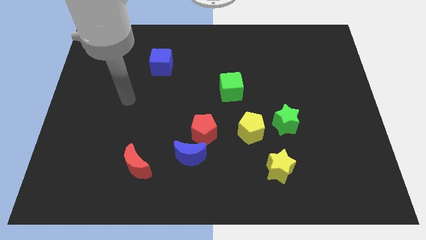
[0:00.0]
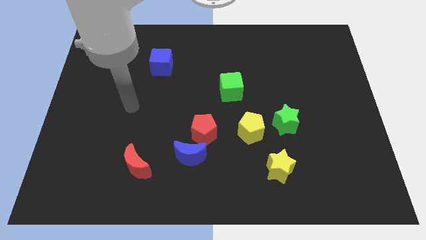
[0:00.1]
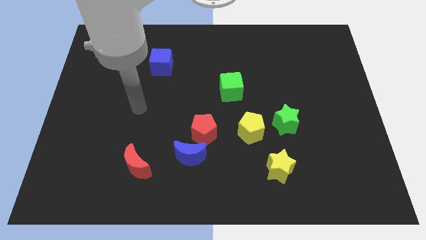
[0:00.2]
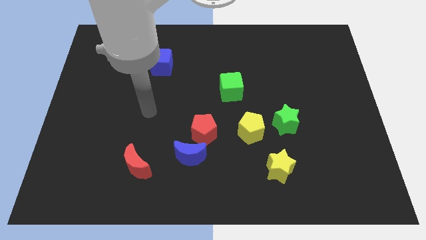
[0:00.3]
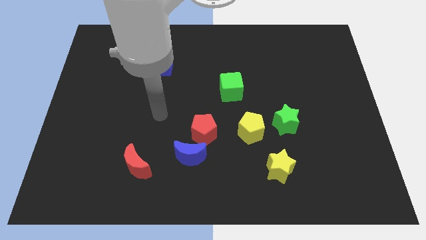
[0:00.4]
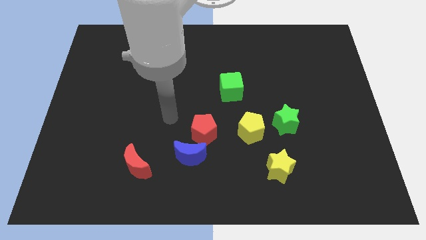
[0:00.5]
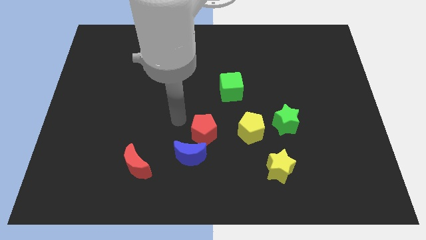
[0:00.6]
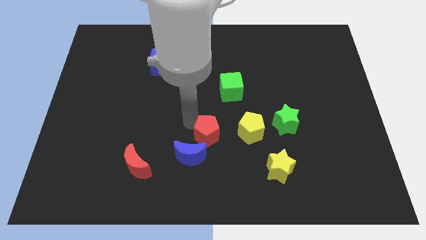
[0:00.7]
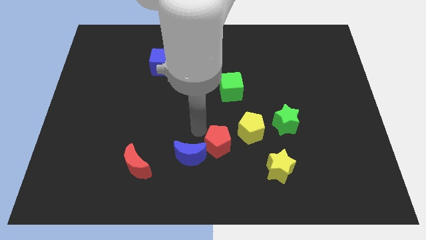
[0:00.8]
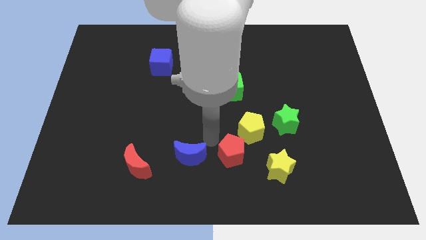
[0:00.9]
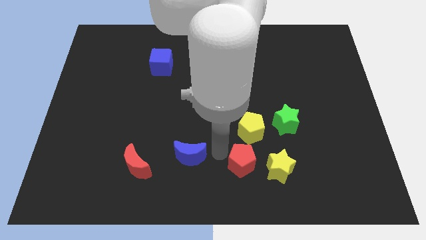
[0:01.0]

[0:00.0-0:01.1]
pull the blue moon apart from the red pentagon

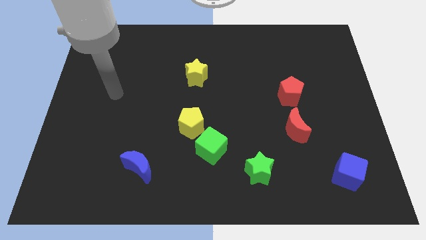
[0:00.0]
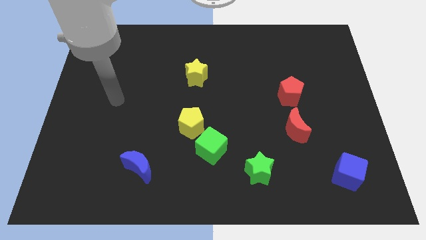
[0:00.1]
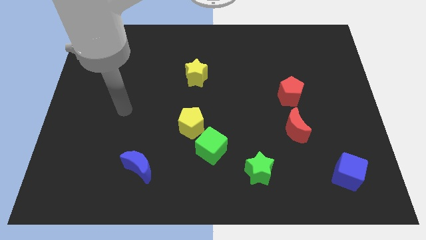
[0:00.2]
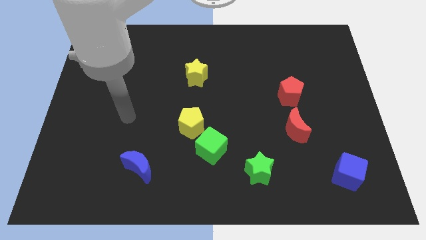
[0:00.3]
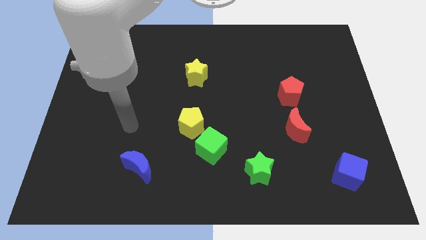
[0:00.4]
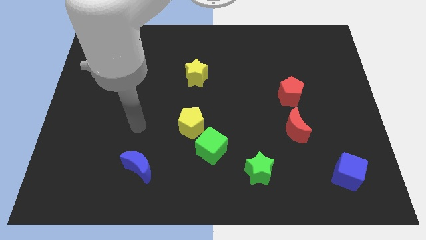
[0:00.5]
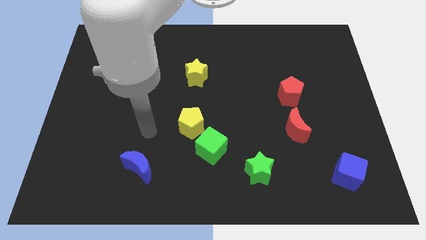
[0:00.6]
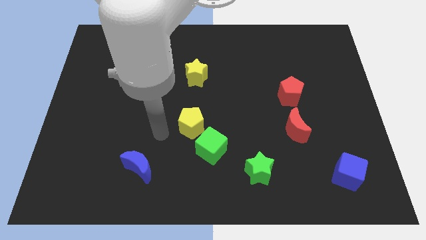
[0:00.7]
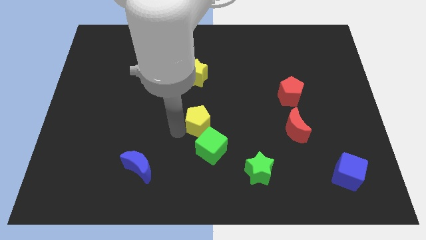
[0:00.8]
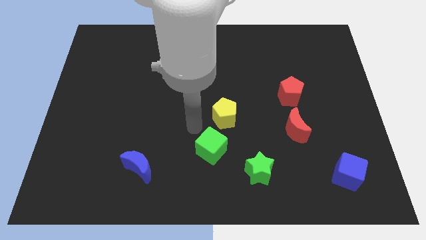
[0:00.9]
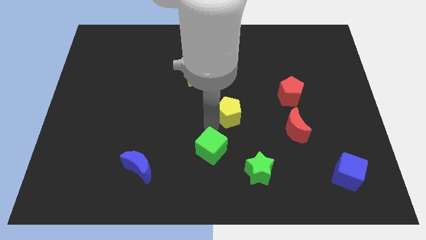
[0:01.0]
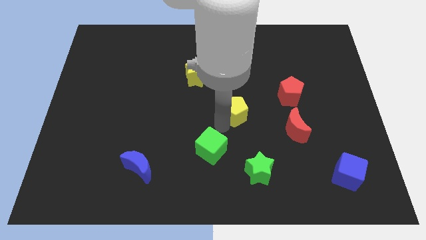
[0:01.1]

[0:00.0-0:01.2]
move the green cube away from the yellow pentagon

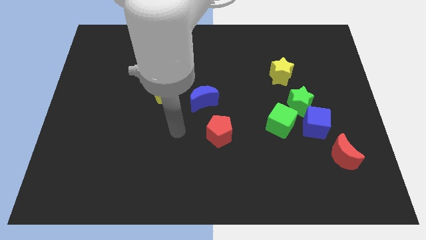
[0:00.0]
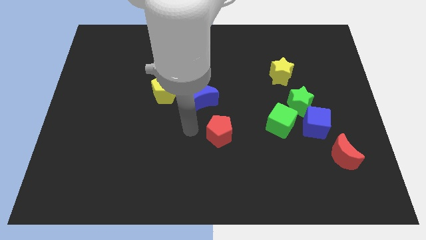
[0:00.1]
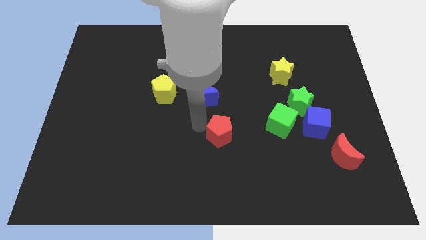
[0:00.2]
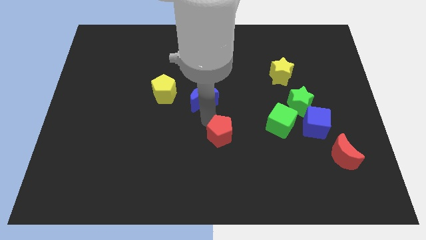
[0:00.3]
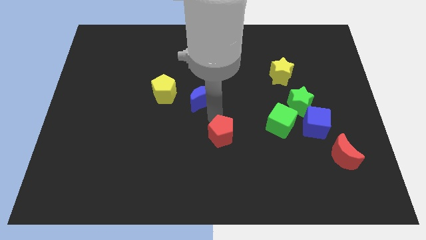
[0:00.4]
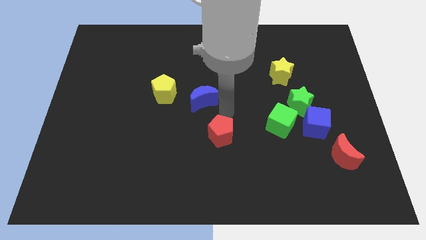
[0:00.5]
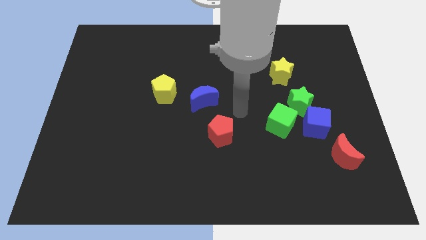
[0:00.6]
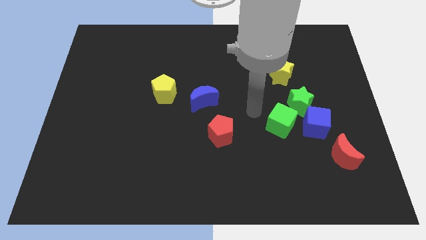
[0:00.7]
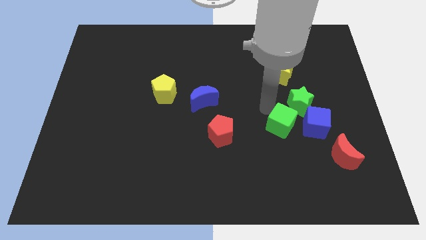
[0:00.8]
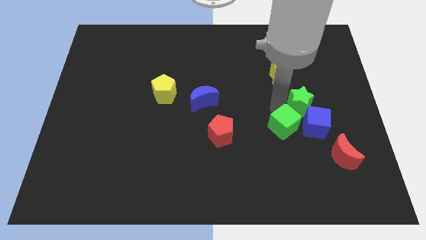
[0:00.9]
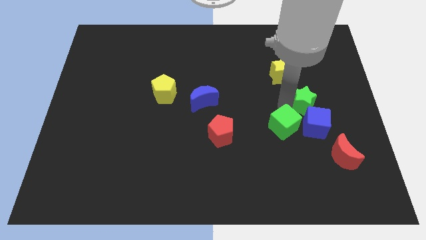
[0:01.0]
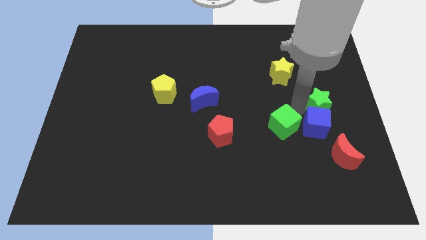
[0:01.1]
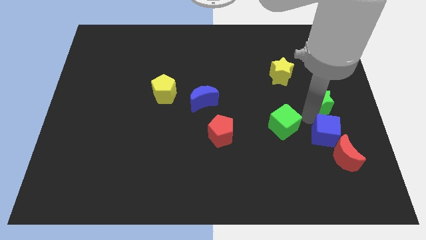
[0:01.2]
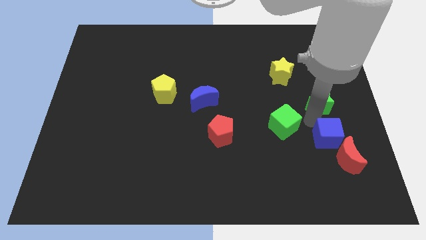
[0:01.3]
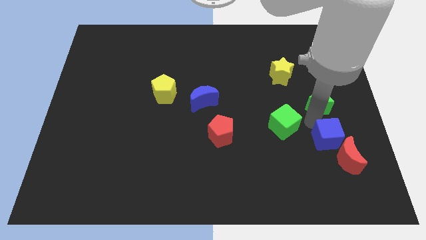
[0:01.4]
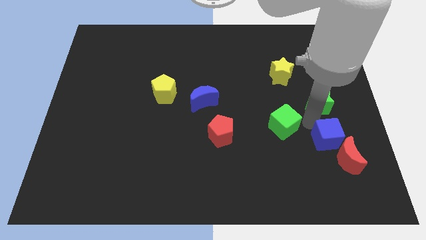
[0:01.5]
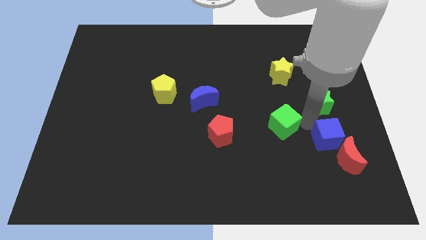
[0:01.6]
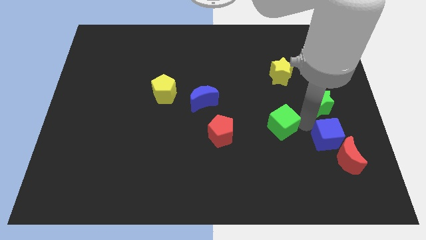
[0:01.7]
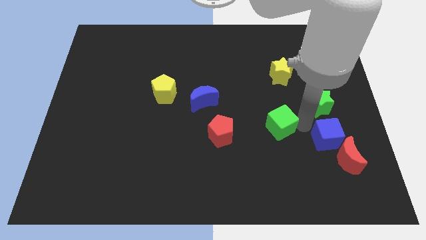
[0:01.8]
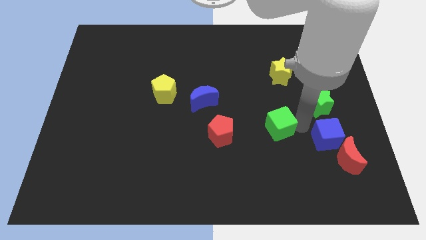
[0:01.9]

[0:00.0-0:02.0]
move the green cube away from the green star and blue cube

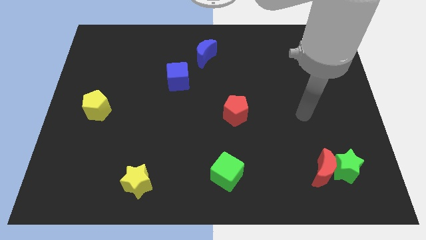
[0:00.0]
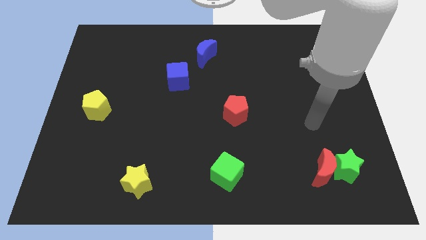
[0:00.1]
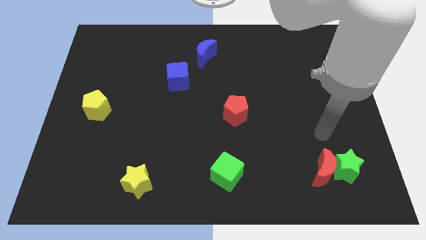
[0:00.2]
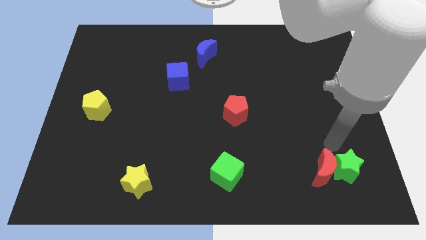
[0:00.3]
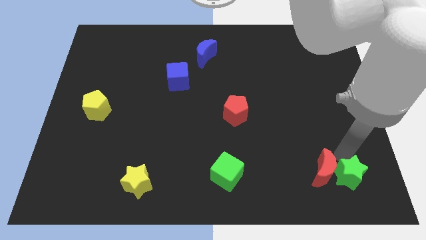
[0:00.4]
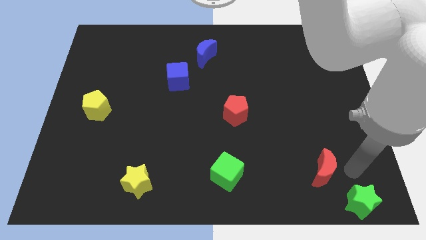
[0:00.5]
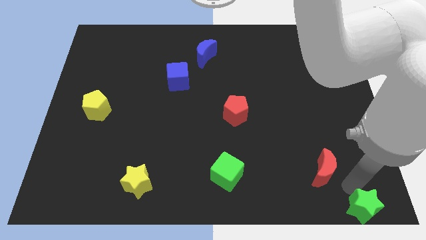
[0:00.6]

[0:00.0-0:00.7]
move the red moon away from the green star

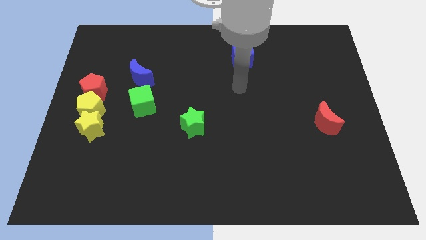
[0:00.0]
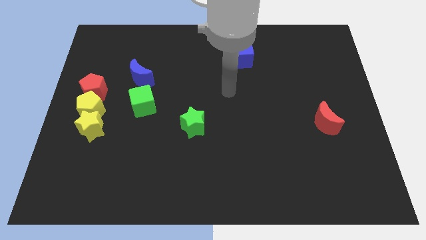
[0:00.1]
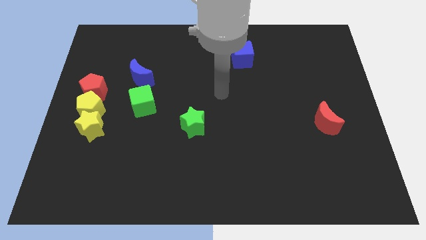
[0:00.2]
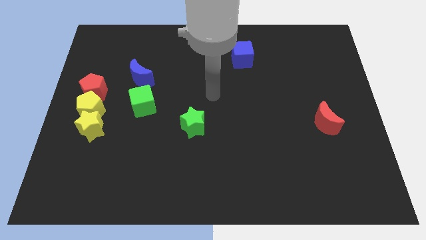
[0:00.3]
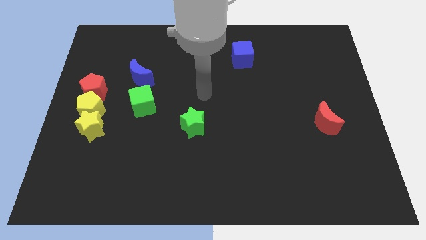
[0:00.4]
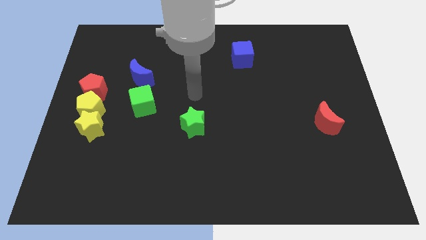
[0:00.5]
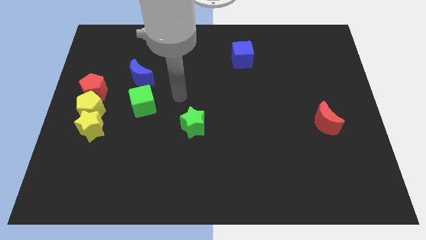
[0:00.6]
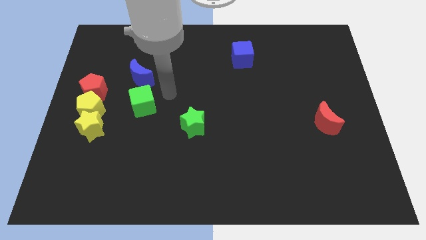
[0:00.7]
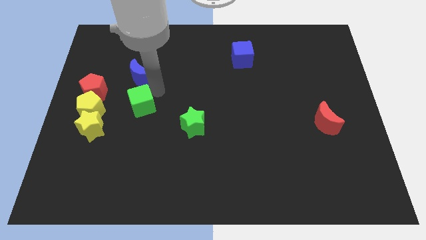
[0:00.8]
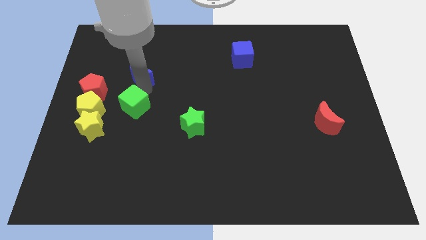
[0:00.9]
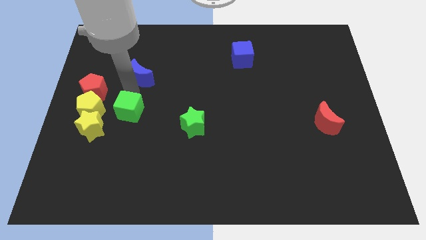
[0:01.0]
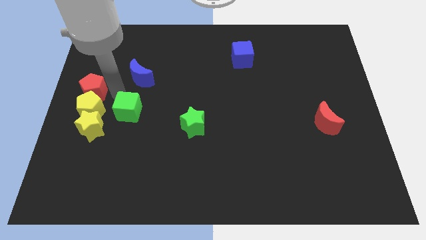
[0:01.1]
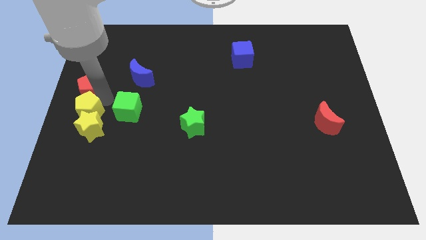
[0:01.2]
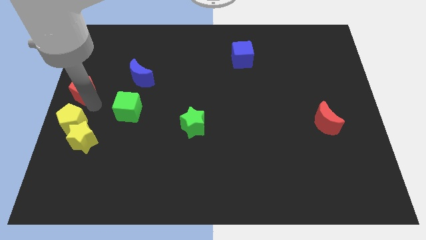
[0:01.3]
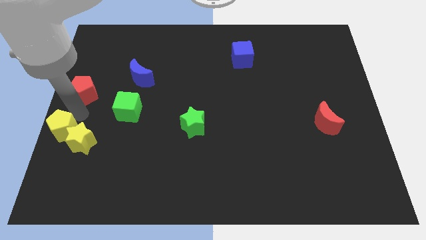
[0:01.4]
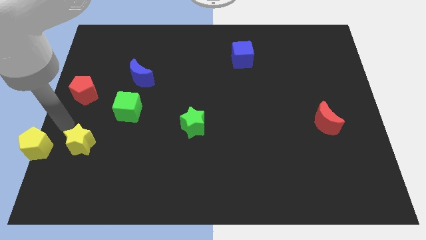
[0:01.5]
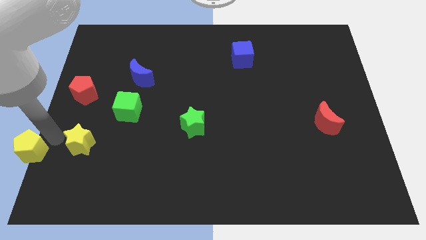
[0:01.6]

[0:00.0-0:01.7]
separate the yellow star from the yellow pentagon

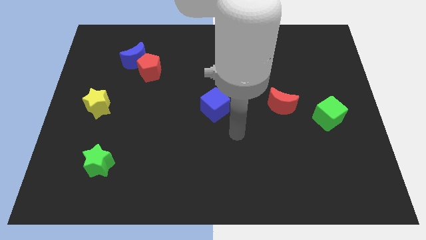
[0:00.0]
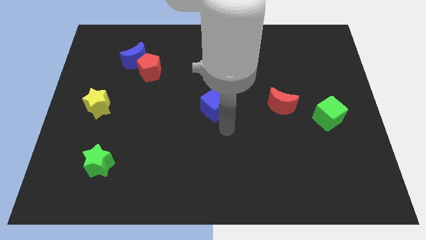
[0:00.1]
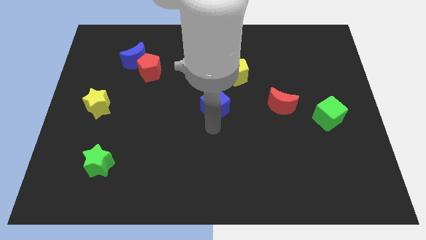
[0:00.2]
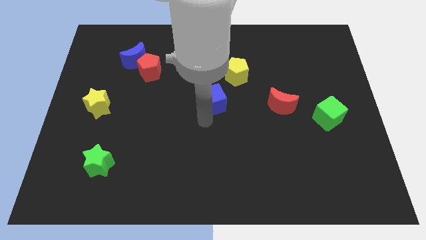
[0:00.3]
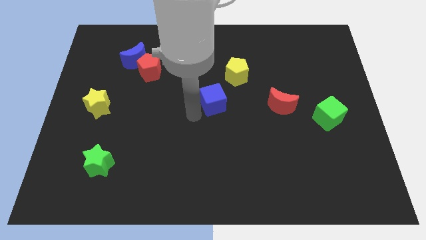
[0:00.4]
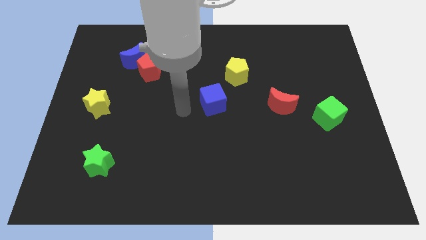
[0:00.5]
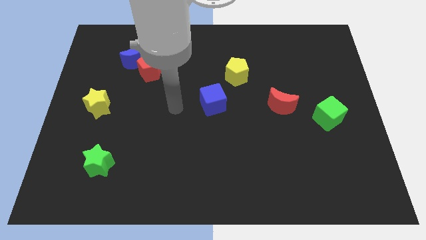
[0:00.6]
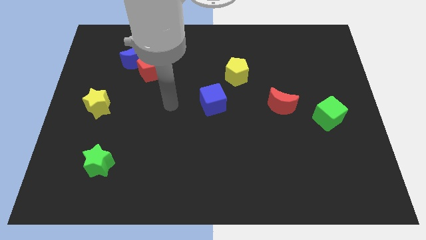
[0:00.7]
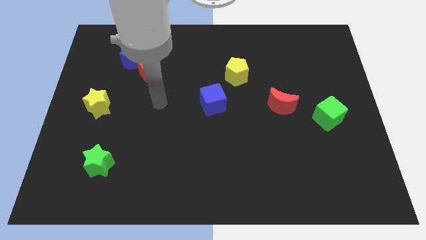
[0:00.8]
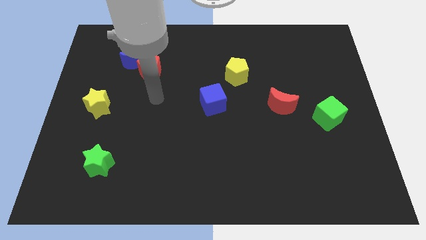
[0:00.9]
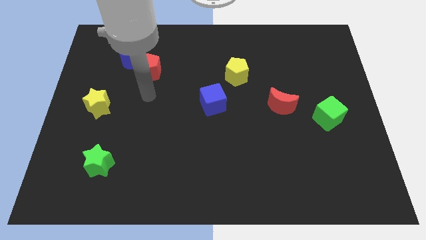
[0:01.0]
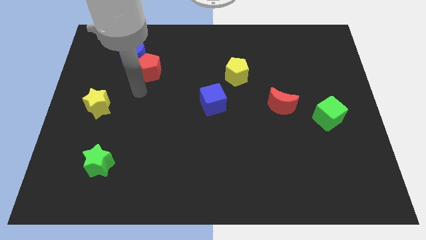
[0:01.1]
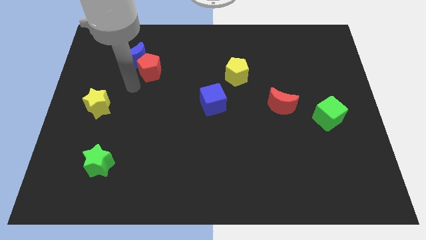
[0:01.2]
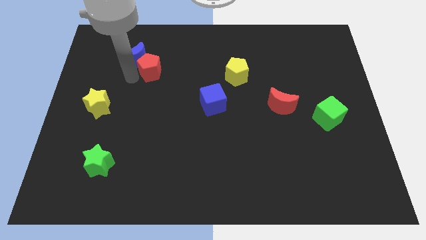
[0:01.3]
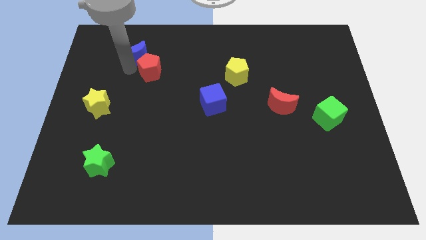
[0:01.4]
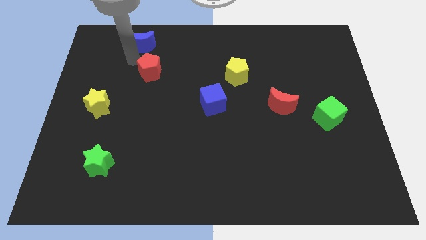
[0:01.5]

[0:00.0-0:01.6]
separate the red pentagon from the blue moon

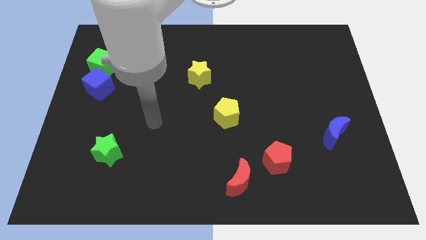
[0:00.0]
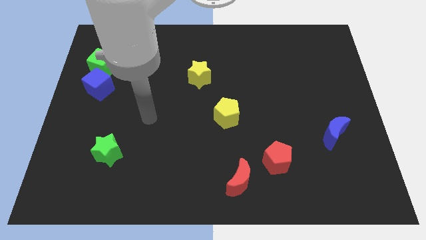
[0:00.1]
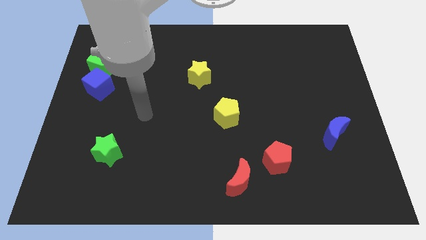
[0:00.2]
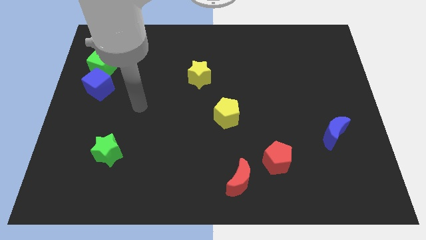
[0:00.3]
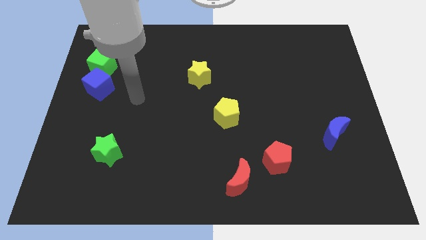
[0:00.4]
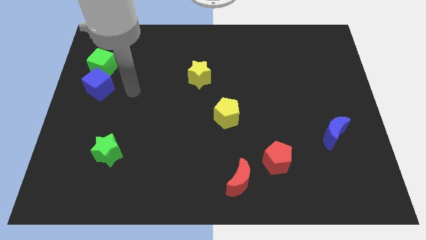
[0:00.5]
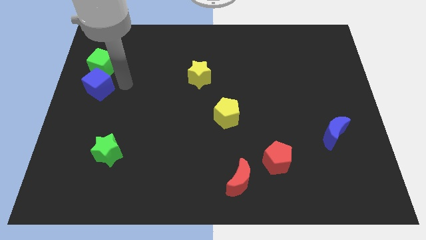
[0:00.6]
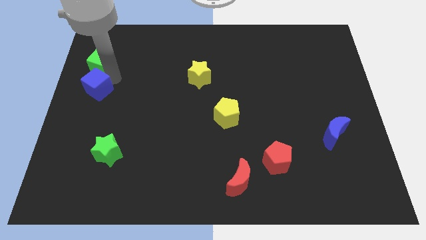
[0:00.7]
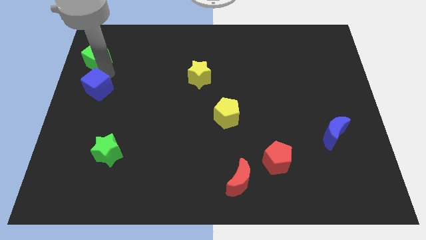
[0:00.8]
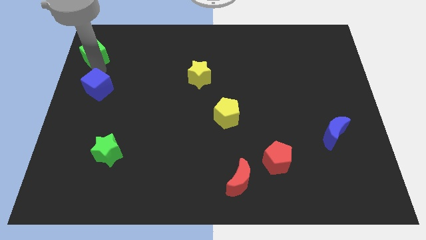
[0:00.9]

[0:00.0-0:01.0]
pull the blue cube apart from the green cube
